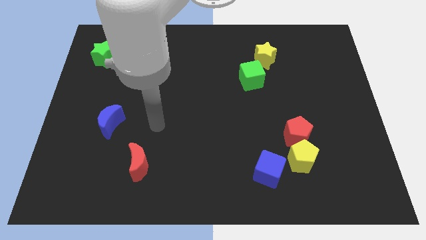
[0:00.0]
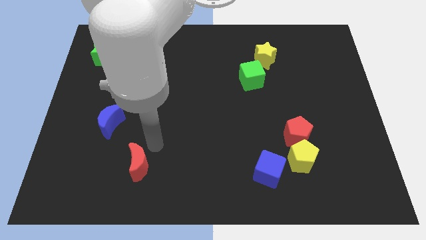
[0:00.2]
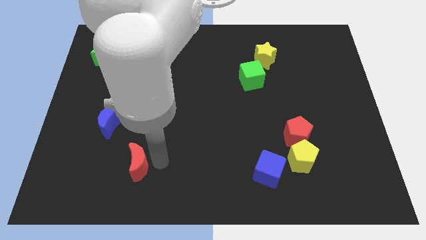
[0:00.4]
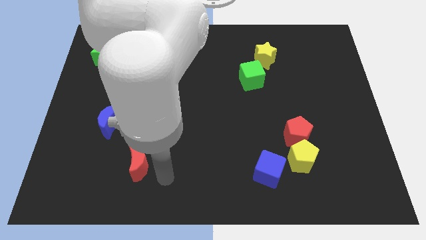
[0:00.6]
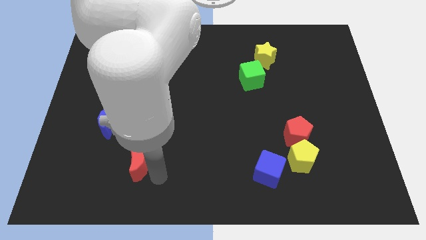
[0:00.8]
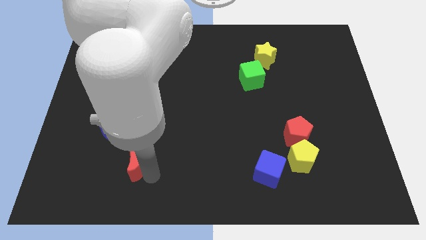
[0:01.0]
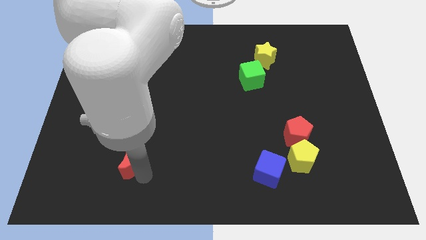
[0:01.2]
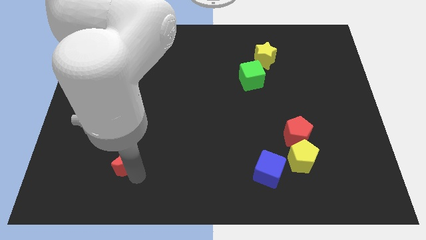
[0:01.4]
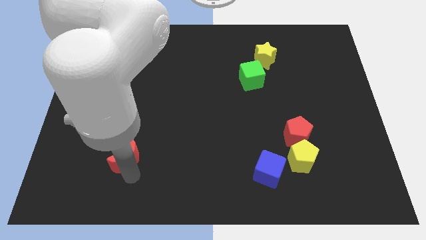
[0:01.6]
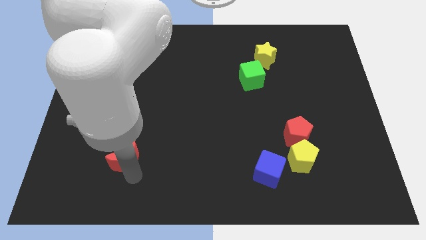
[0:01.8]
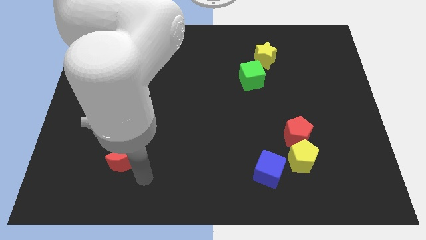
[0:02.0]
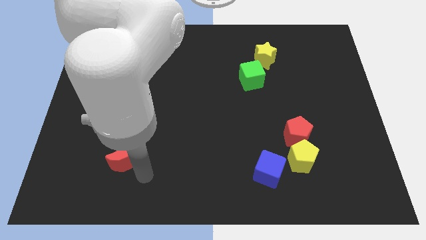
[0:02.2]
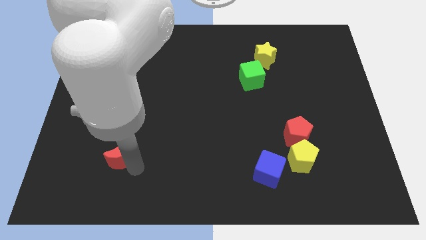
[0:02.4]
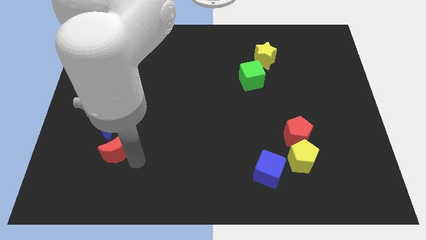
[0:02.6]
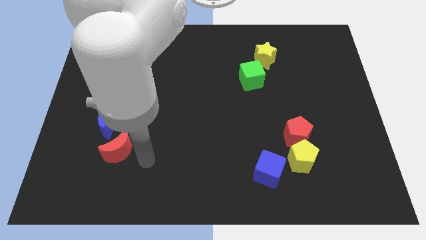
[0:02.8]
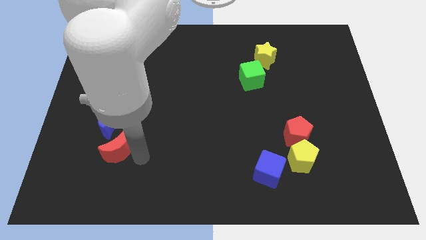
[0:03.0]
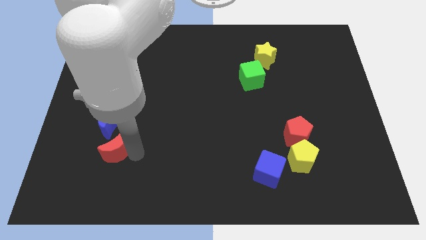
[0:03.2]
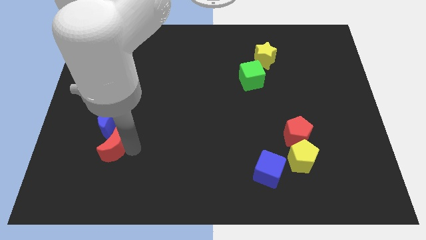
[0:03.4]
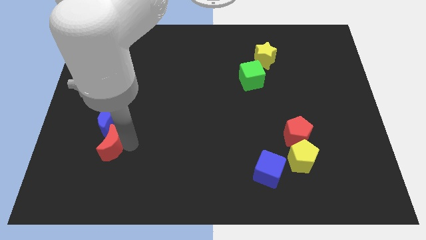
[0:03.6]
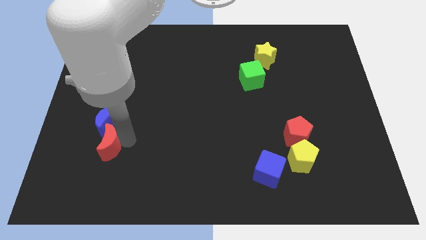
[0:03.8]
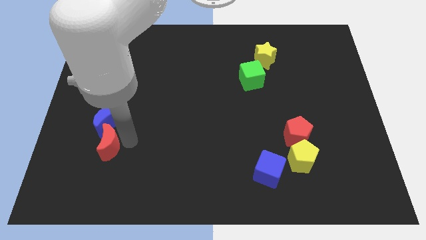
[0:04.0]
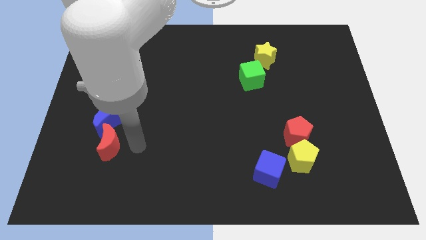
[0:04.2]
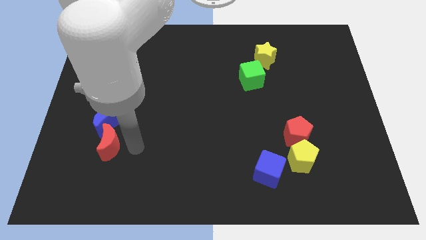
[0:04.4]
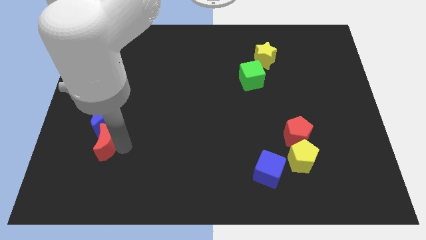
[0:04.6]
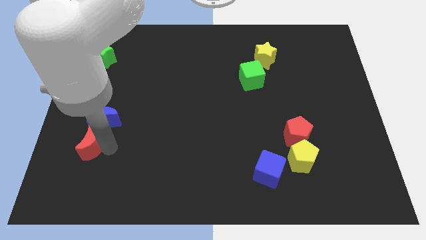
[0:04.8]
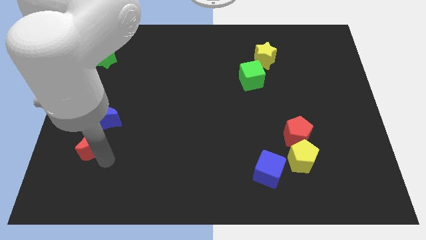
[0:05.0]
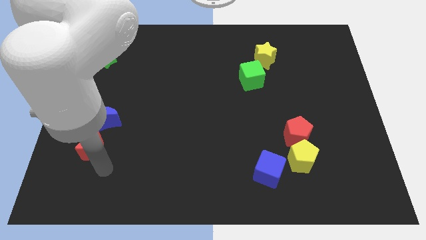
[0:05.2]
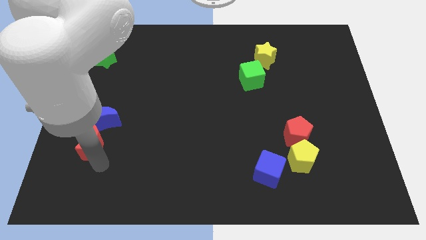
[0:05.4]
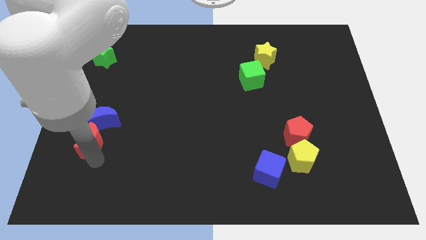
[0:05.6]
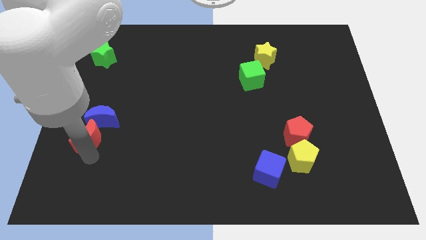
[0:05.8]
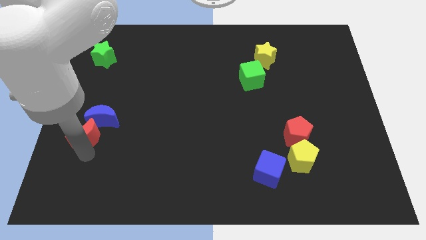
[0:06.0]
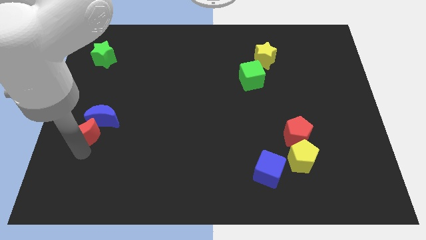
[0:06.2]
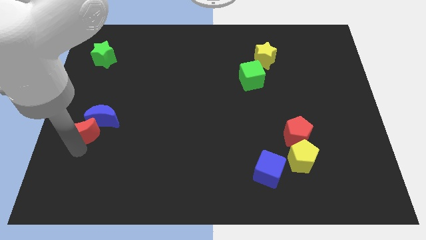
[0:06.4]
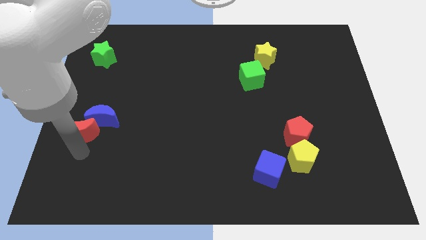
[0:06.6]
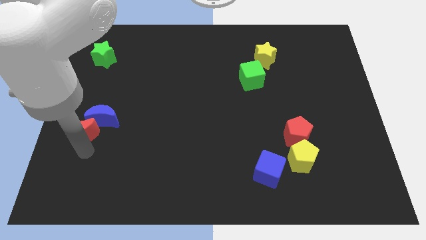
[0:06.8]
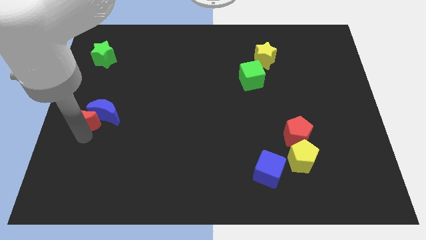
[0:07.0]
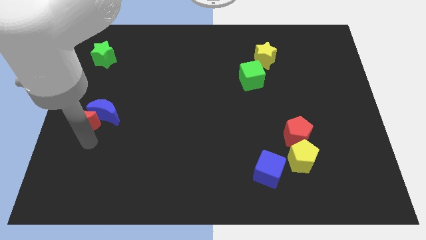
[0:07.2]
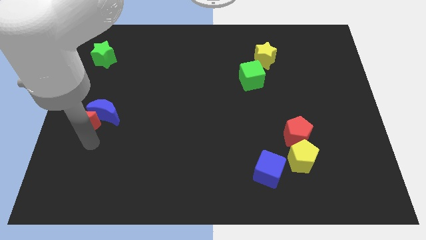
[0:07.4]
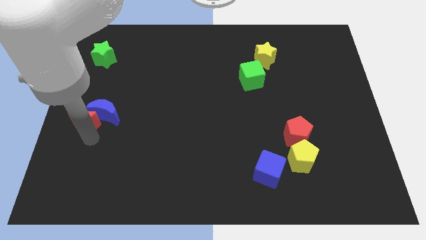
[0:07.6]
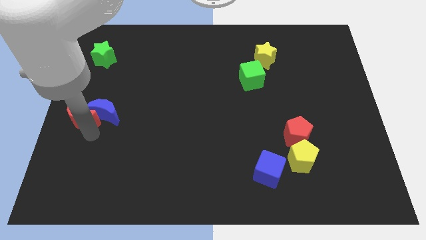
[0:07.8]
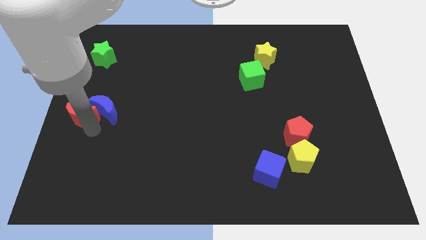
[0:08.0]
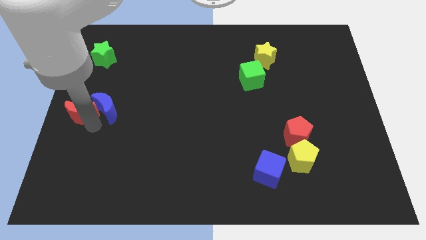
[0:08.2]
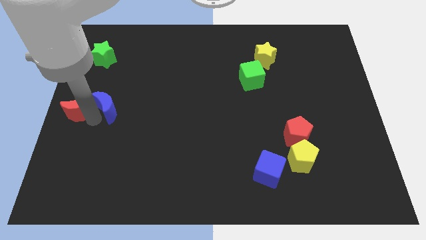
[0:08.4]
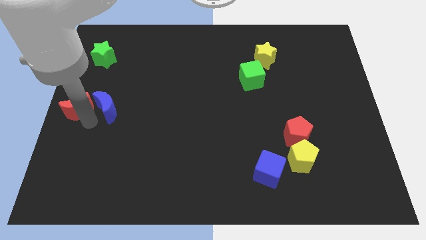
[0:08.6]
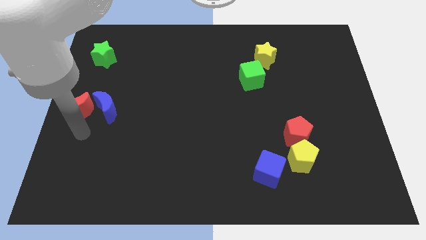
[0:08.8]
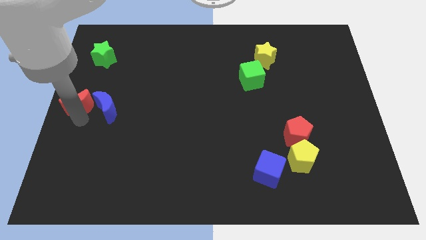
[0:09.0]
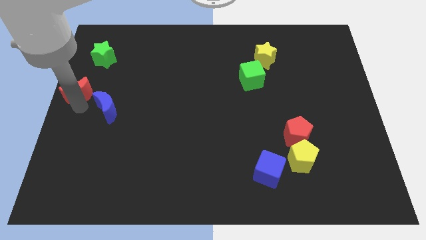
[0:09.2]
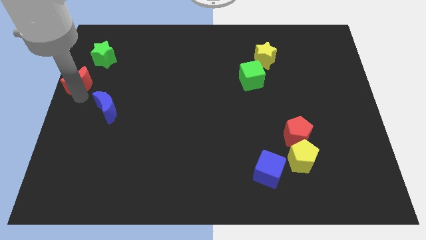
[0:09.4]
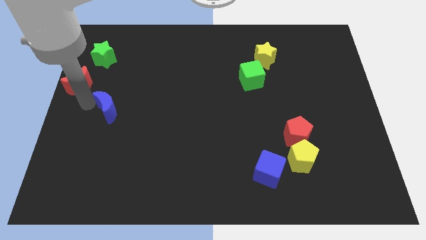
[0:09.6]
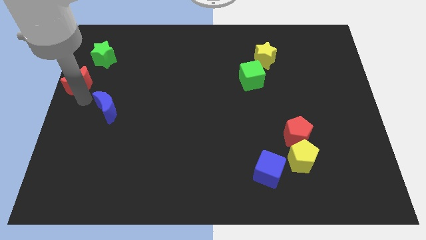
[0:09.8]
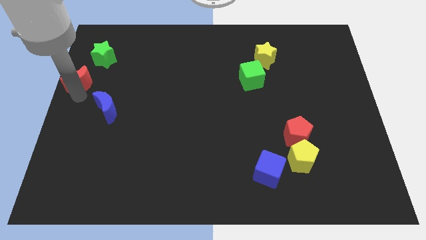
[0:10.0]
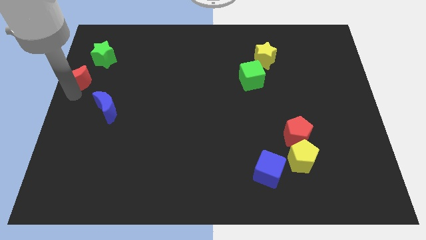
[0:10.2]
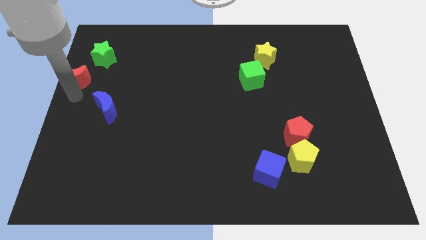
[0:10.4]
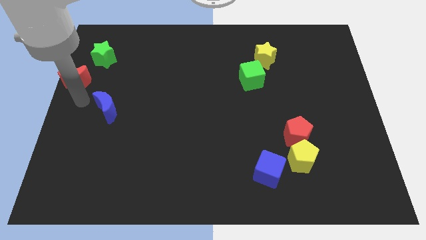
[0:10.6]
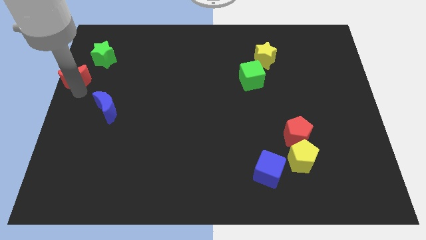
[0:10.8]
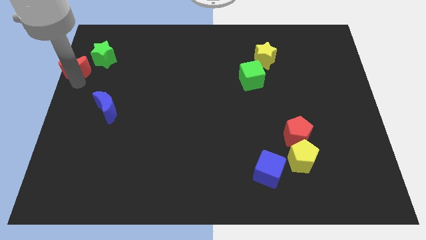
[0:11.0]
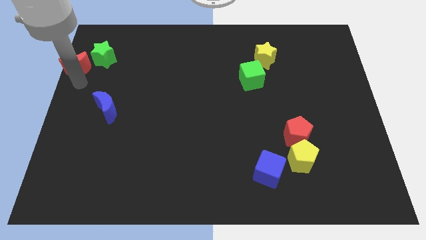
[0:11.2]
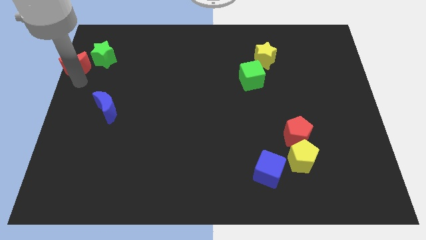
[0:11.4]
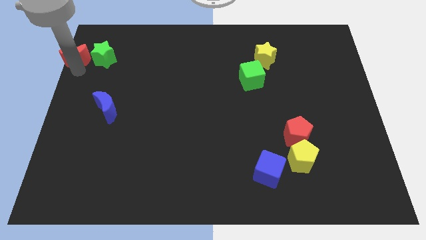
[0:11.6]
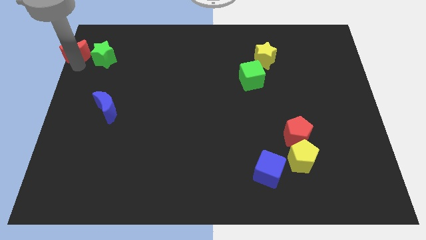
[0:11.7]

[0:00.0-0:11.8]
push the red moon to the upper left corner
